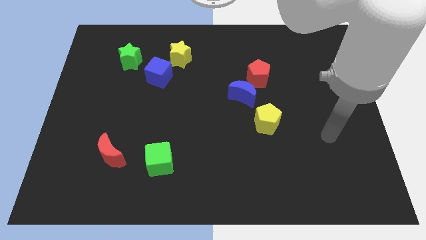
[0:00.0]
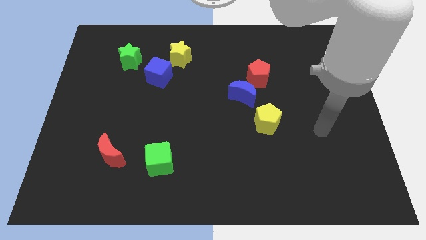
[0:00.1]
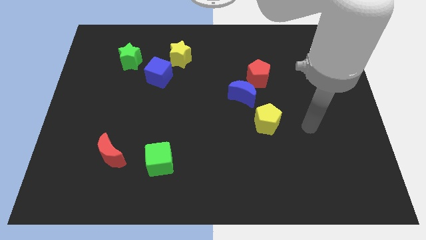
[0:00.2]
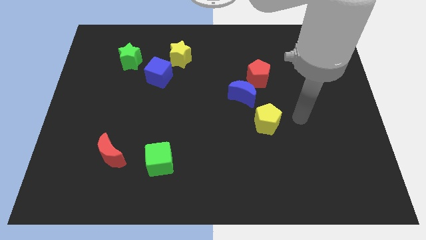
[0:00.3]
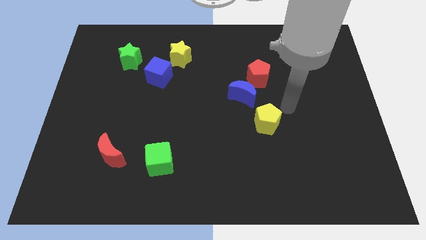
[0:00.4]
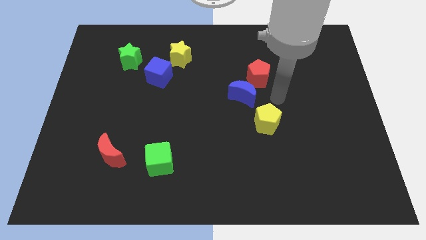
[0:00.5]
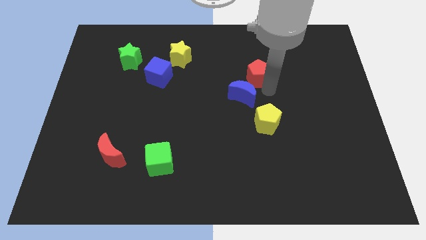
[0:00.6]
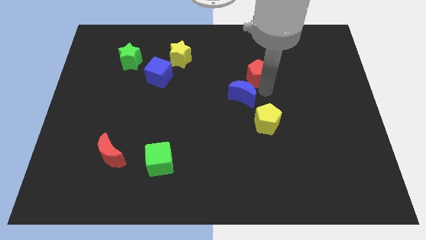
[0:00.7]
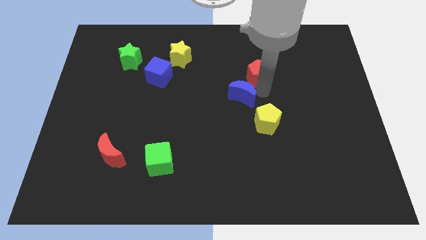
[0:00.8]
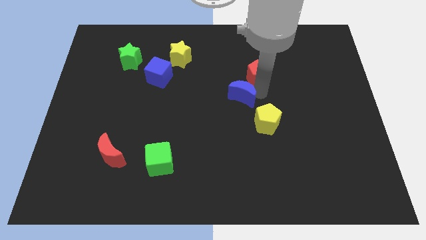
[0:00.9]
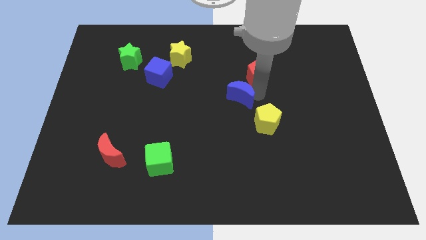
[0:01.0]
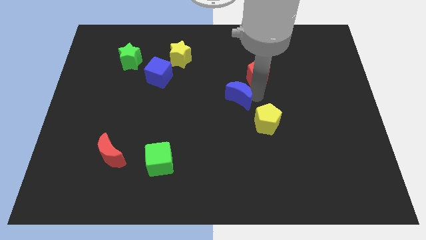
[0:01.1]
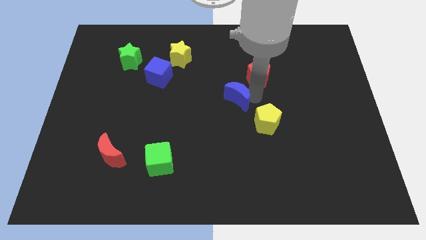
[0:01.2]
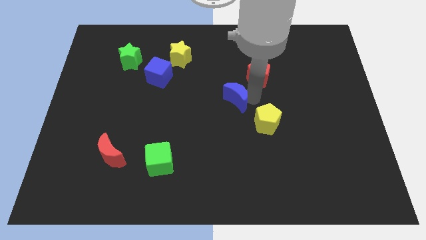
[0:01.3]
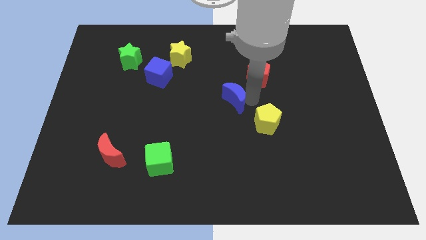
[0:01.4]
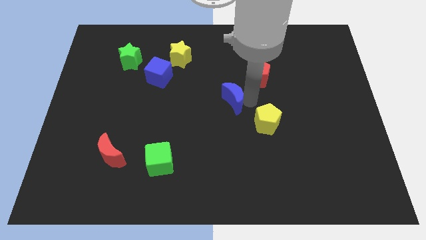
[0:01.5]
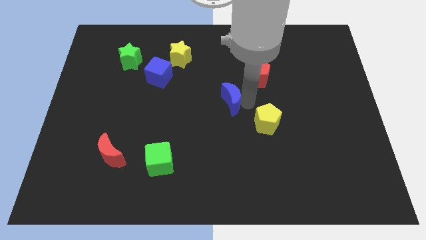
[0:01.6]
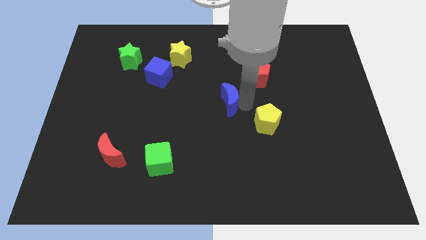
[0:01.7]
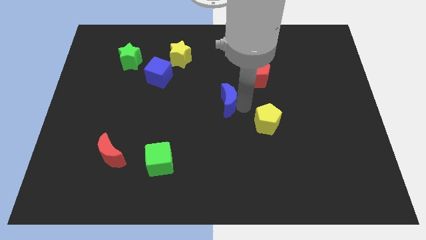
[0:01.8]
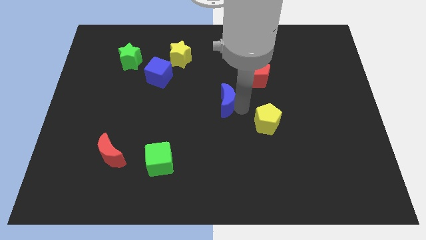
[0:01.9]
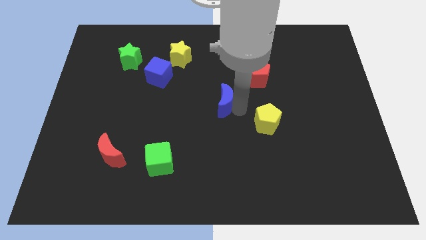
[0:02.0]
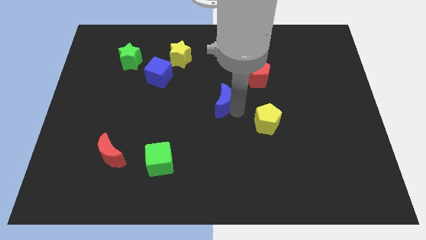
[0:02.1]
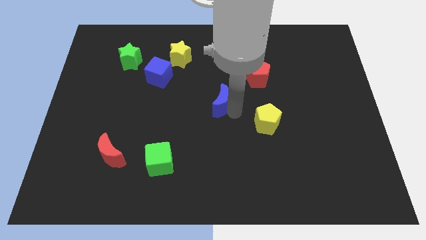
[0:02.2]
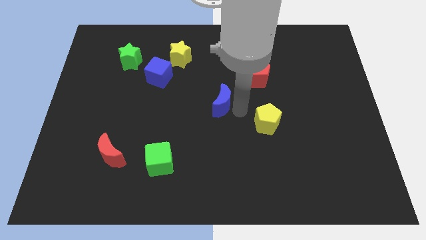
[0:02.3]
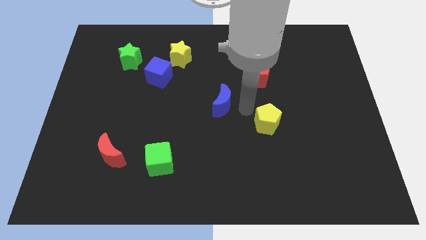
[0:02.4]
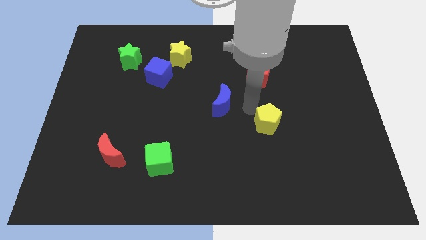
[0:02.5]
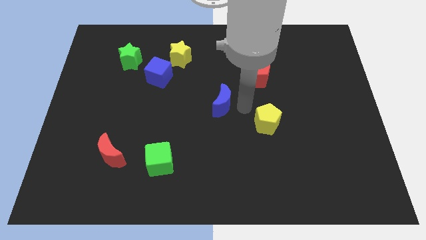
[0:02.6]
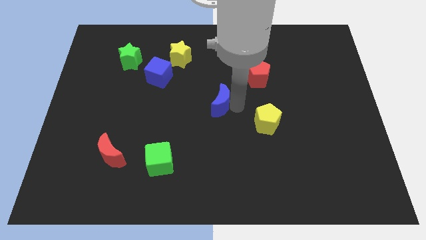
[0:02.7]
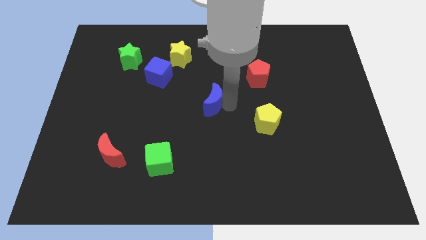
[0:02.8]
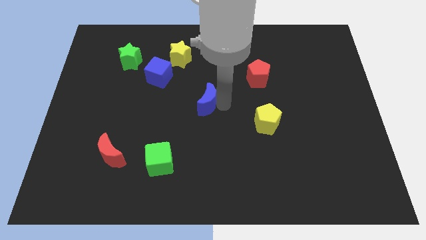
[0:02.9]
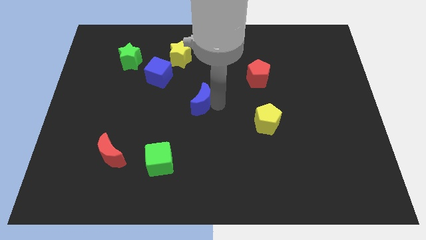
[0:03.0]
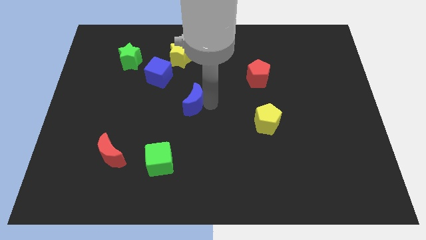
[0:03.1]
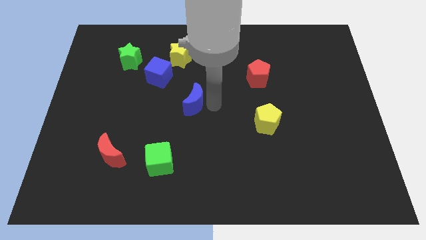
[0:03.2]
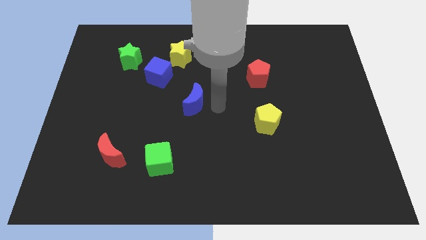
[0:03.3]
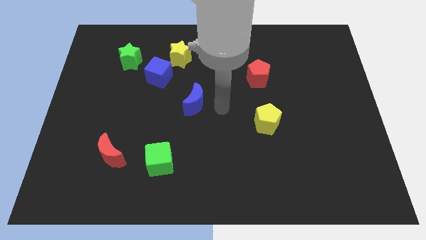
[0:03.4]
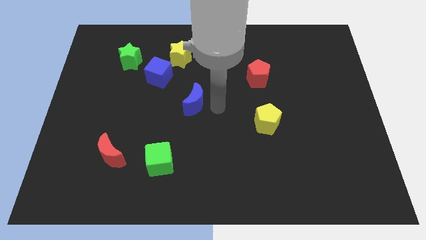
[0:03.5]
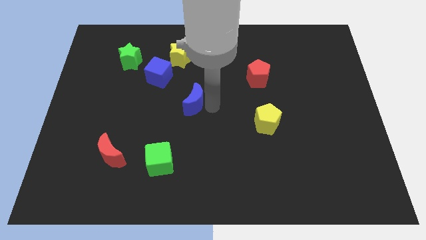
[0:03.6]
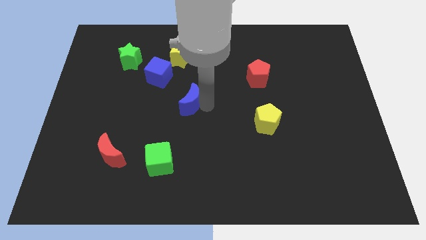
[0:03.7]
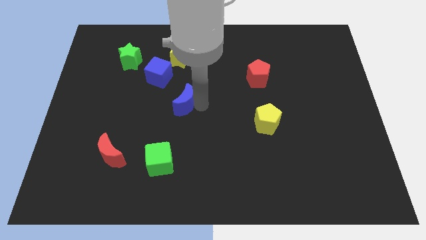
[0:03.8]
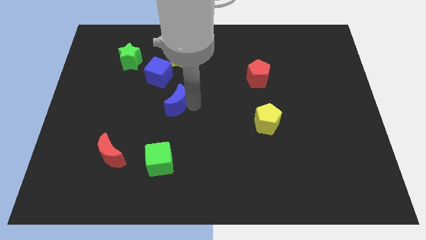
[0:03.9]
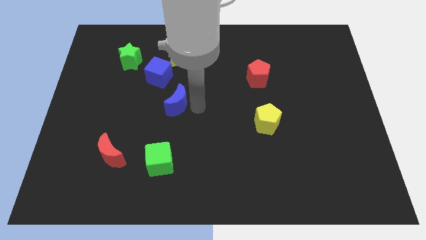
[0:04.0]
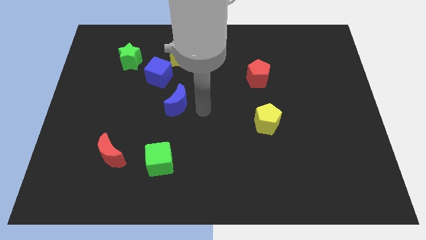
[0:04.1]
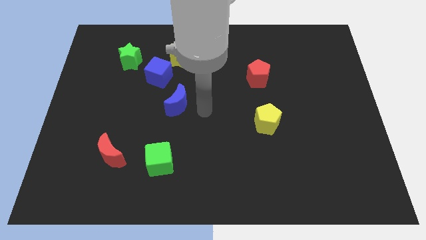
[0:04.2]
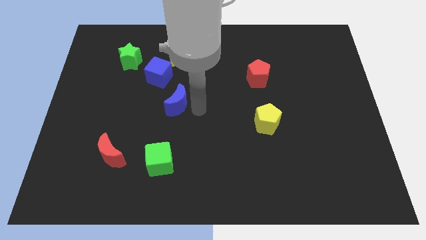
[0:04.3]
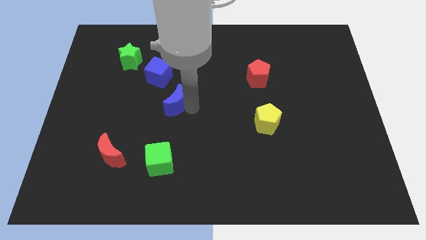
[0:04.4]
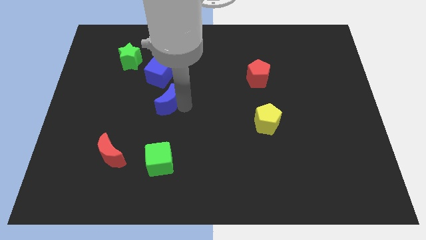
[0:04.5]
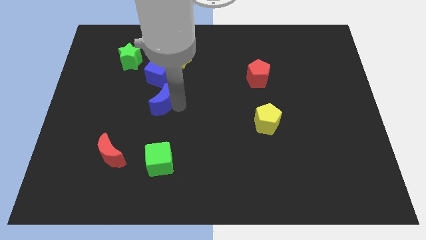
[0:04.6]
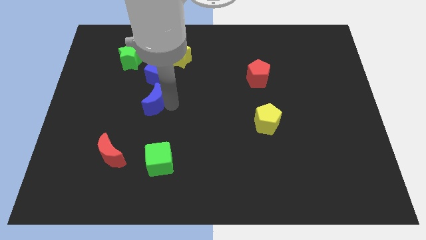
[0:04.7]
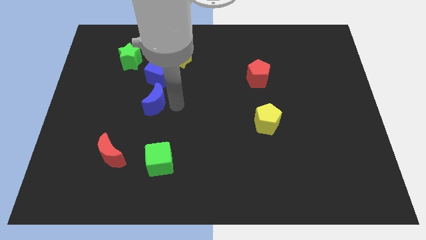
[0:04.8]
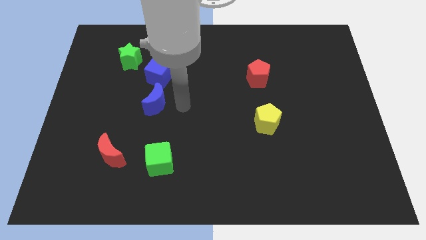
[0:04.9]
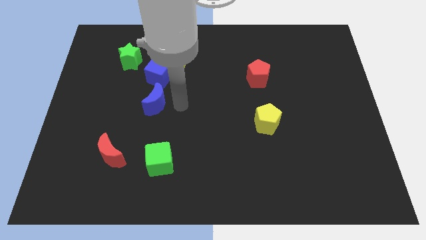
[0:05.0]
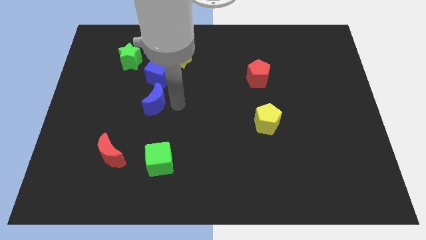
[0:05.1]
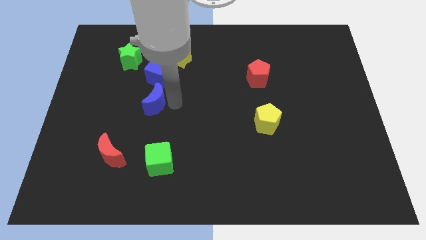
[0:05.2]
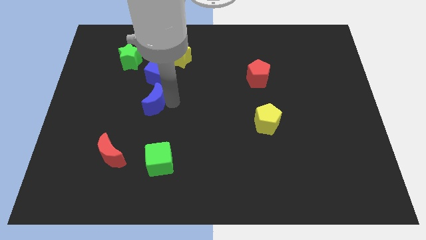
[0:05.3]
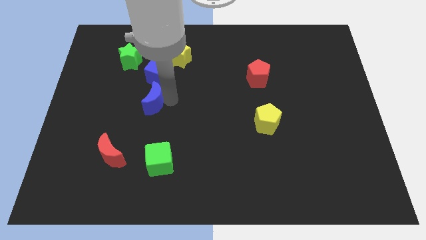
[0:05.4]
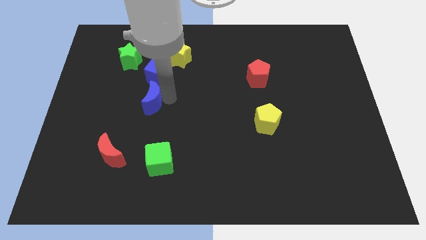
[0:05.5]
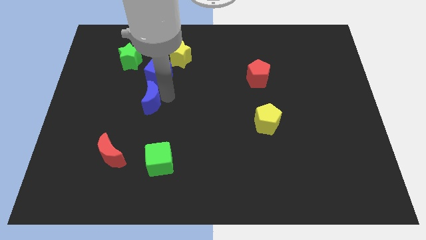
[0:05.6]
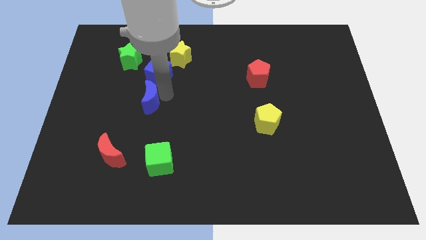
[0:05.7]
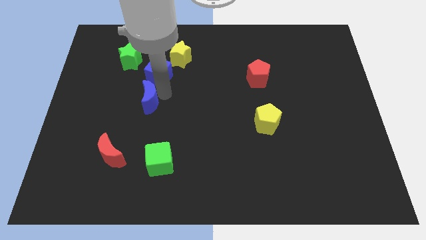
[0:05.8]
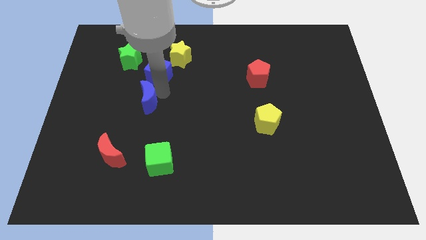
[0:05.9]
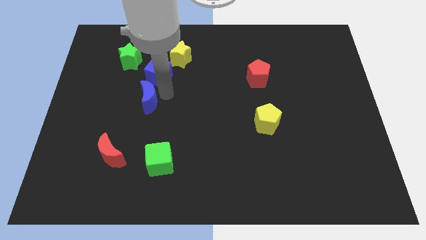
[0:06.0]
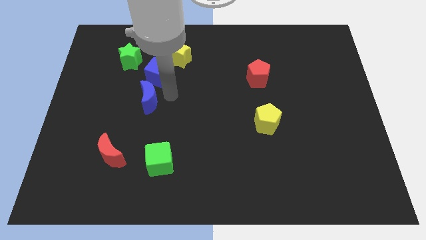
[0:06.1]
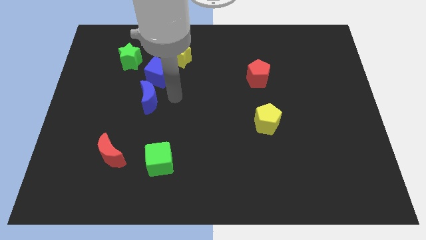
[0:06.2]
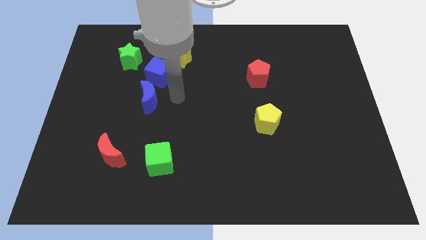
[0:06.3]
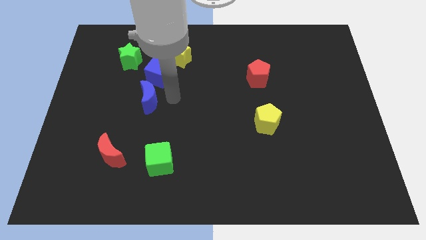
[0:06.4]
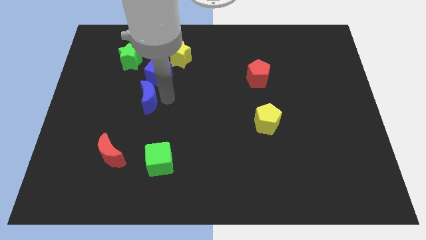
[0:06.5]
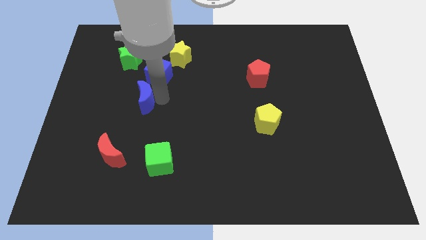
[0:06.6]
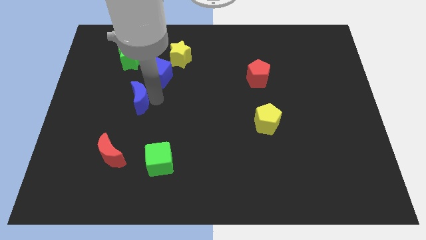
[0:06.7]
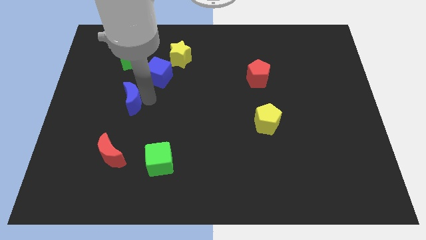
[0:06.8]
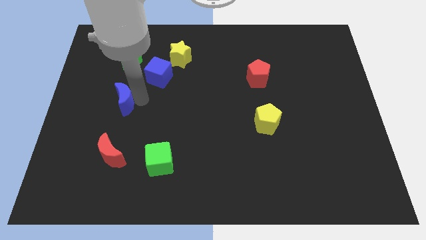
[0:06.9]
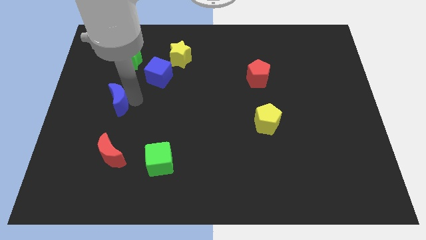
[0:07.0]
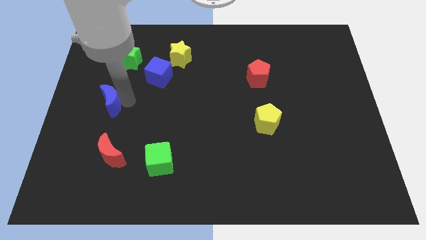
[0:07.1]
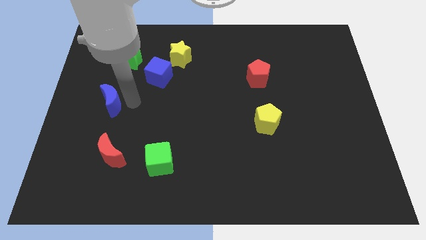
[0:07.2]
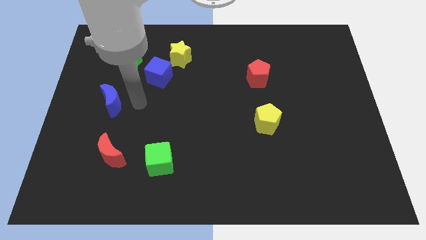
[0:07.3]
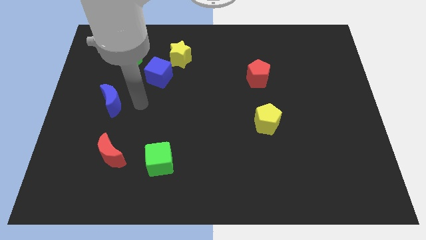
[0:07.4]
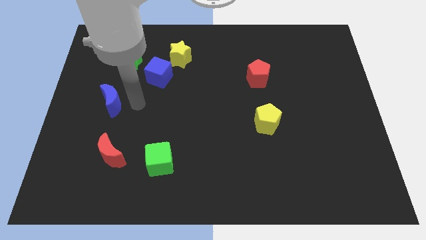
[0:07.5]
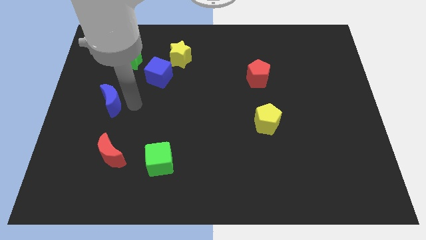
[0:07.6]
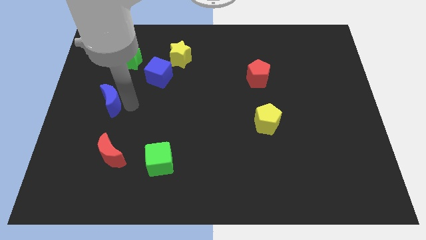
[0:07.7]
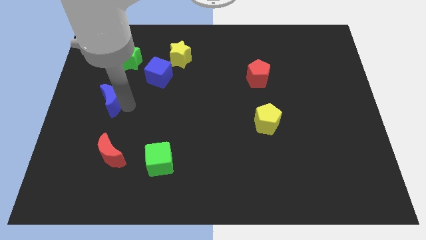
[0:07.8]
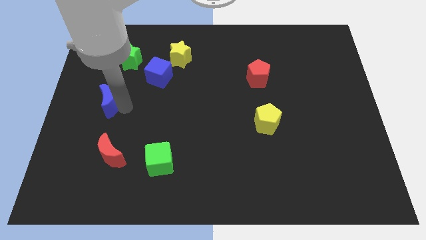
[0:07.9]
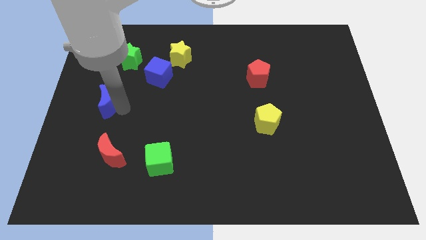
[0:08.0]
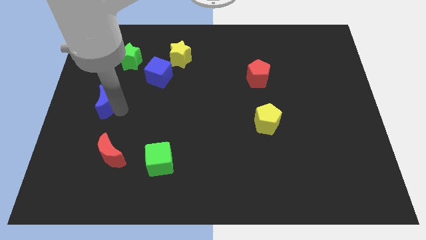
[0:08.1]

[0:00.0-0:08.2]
slide the blue moon to the left side
